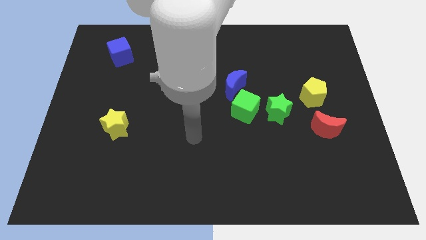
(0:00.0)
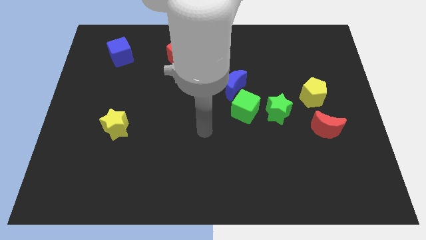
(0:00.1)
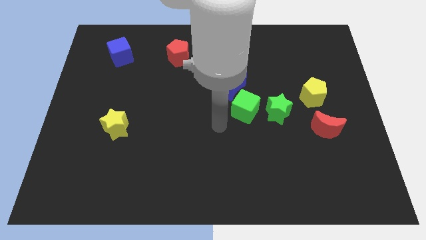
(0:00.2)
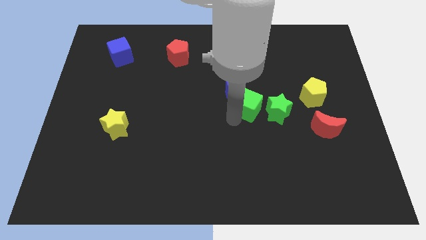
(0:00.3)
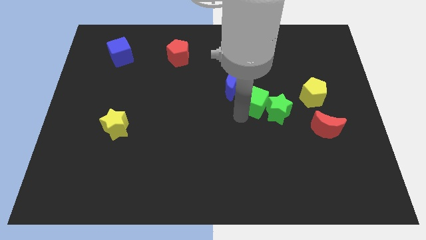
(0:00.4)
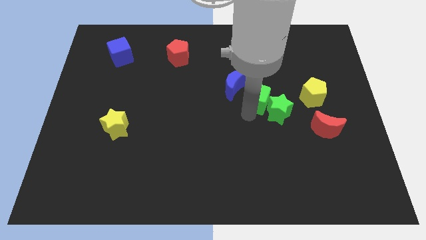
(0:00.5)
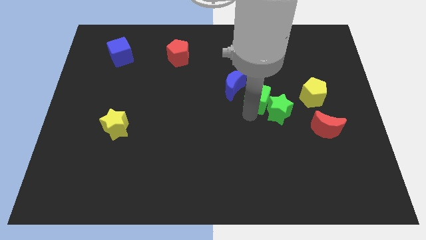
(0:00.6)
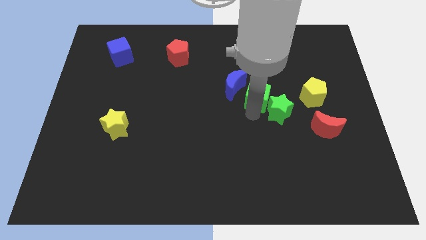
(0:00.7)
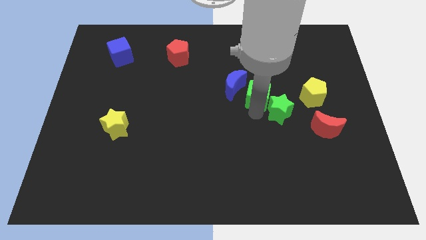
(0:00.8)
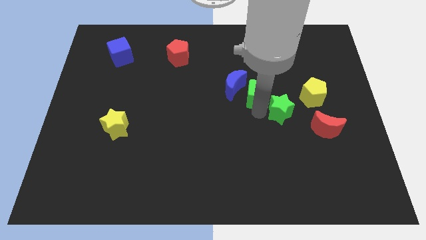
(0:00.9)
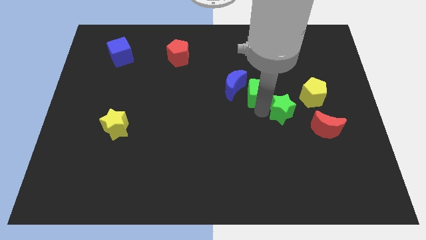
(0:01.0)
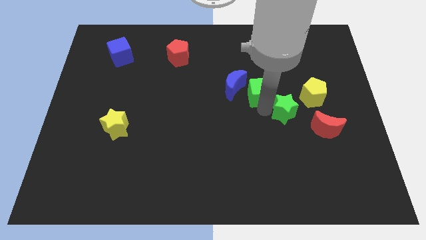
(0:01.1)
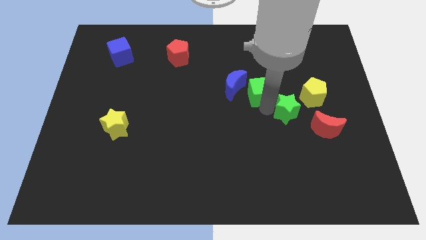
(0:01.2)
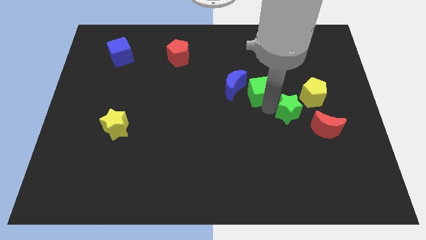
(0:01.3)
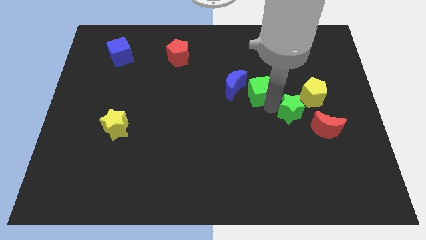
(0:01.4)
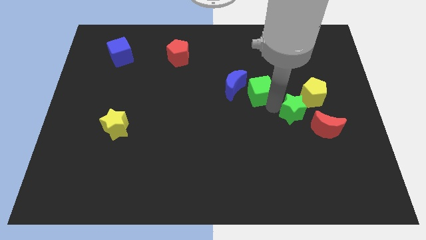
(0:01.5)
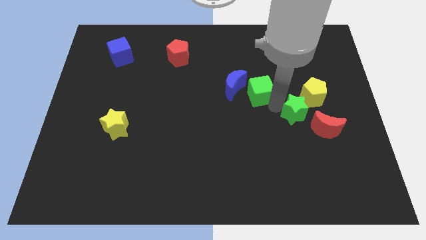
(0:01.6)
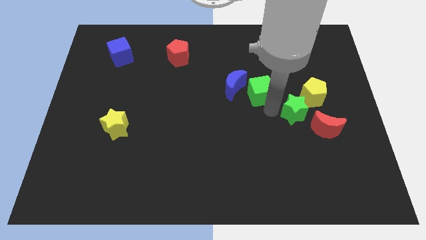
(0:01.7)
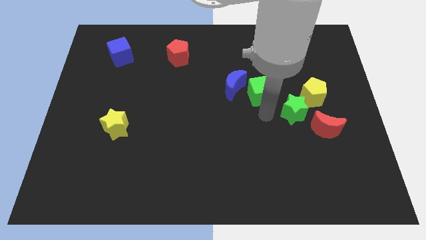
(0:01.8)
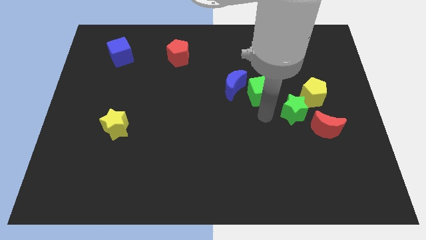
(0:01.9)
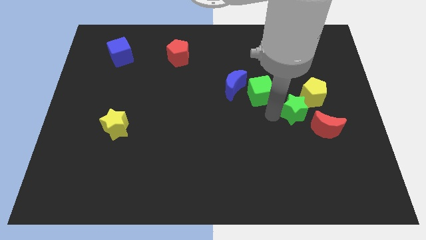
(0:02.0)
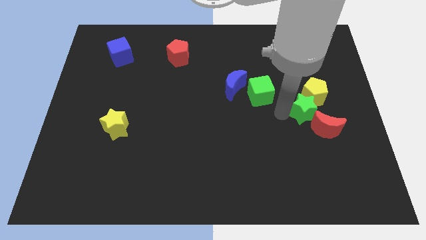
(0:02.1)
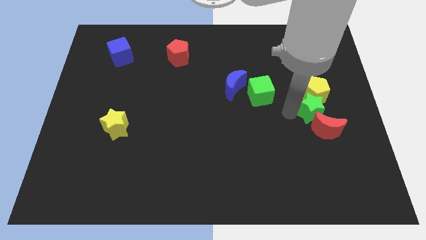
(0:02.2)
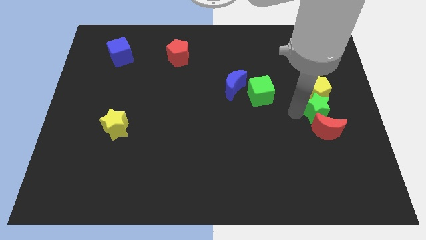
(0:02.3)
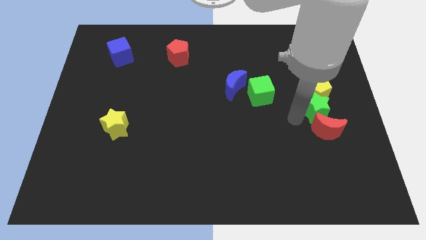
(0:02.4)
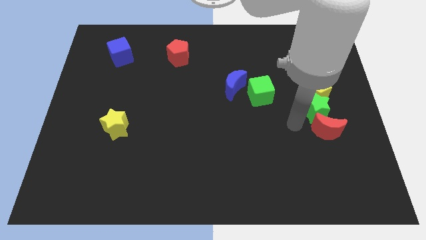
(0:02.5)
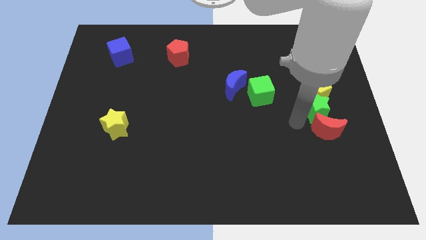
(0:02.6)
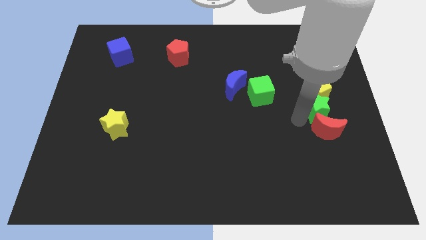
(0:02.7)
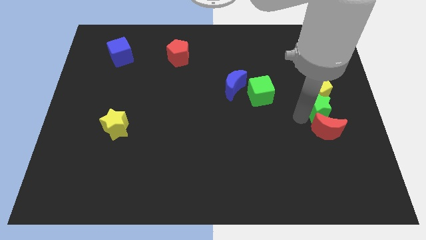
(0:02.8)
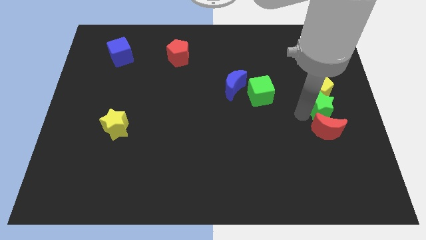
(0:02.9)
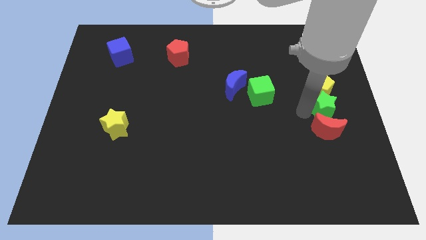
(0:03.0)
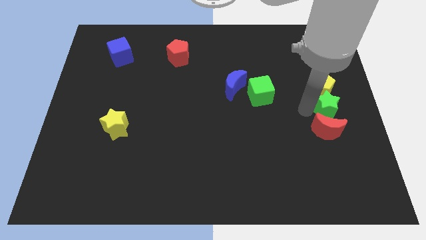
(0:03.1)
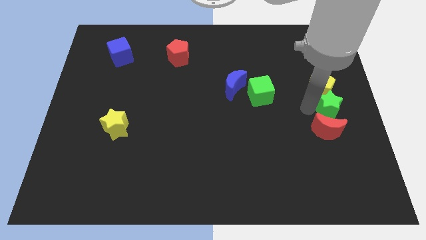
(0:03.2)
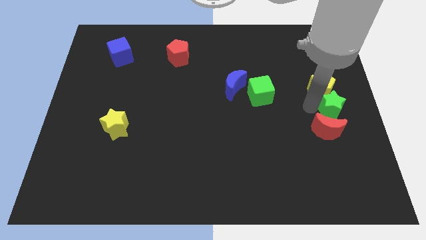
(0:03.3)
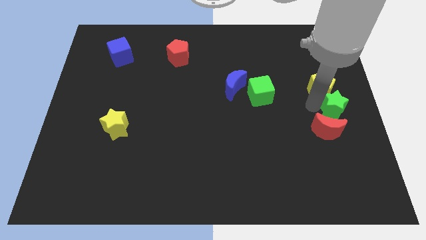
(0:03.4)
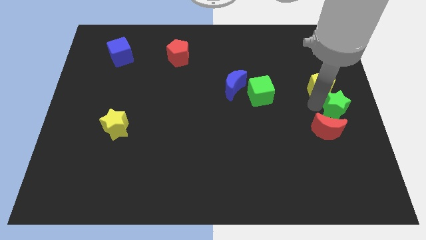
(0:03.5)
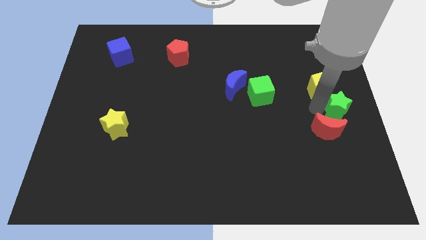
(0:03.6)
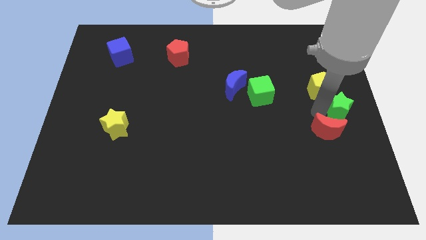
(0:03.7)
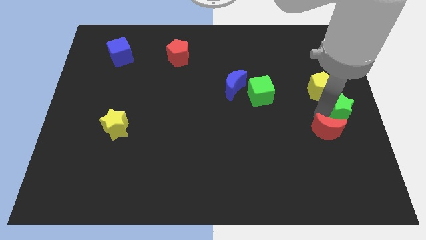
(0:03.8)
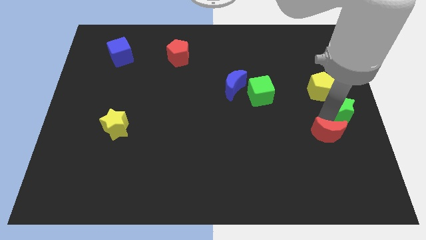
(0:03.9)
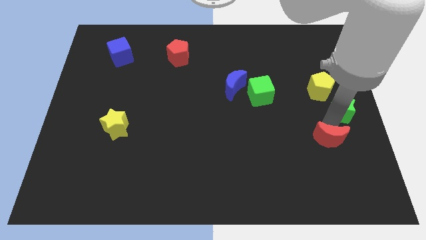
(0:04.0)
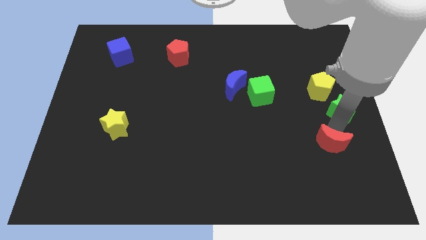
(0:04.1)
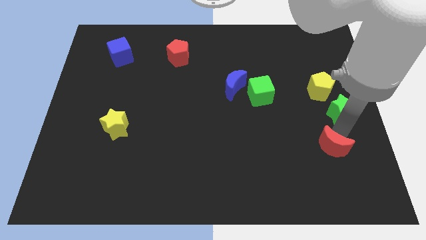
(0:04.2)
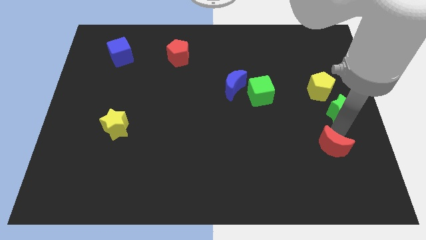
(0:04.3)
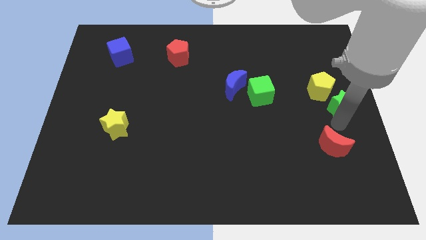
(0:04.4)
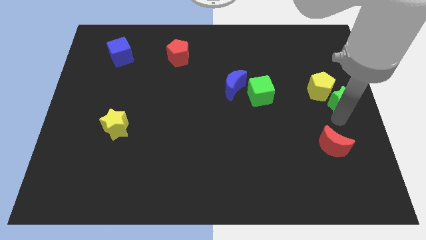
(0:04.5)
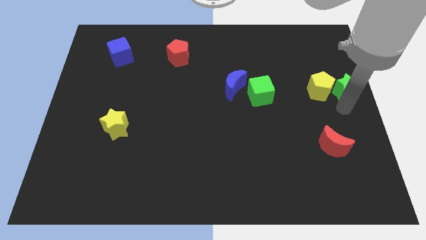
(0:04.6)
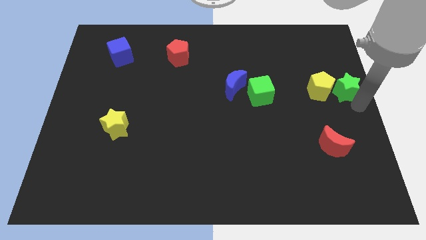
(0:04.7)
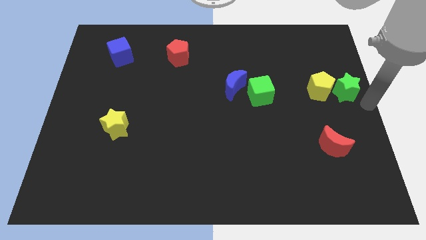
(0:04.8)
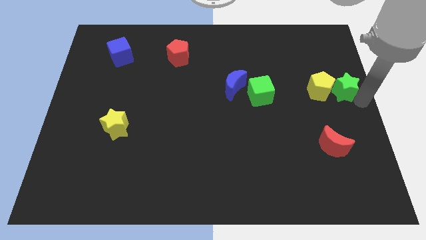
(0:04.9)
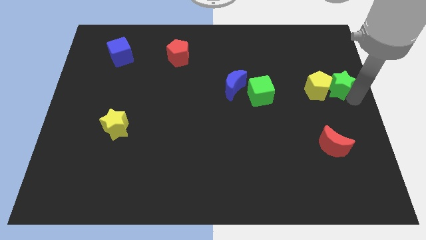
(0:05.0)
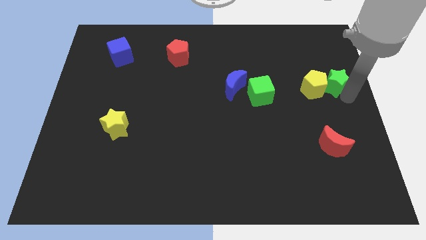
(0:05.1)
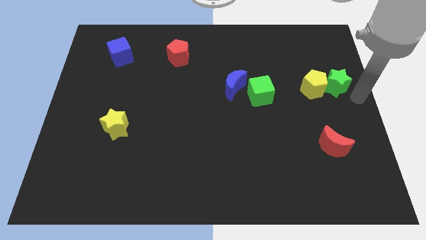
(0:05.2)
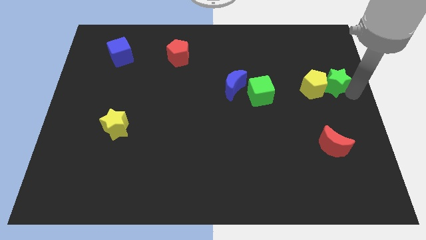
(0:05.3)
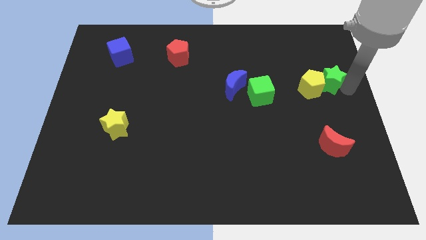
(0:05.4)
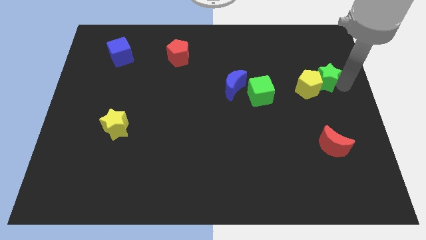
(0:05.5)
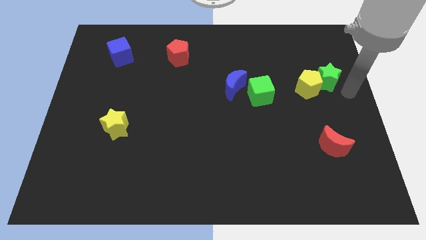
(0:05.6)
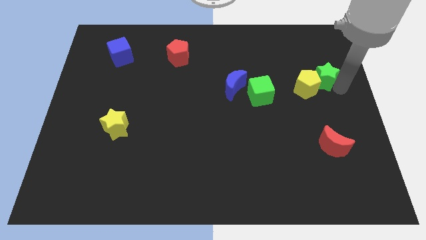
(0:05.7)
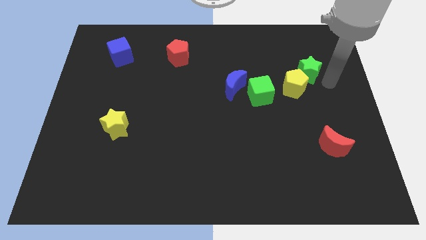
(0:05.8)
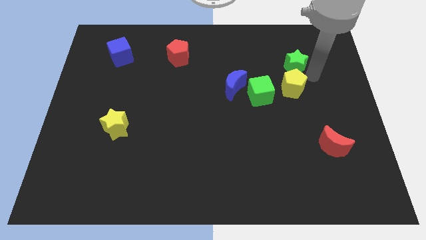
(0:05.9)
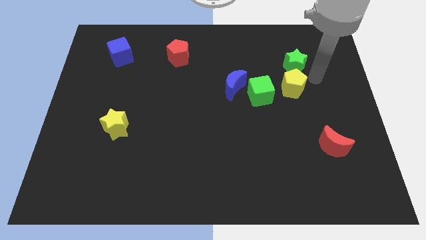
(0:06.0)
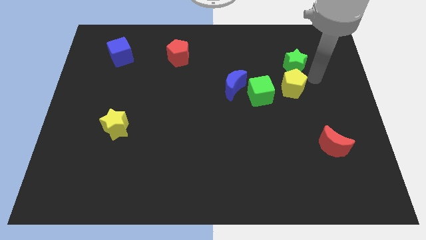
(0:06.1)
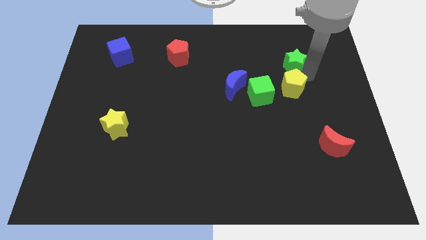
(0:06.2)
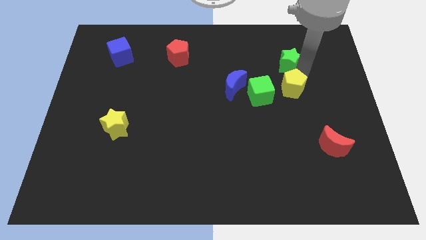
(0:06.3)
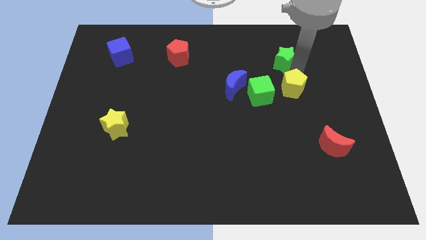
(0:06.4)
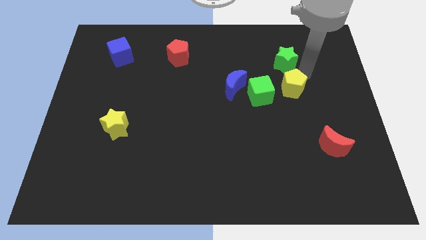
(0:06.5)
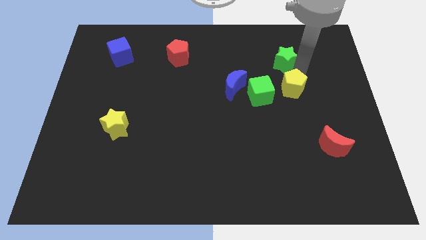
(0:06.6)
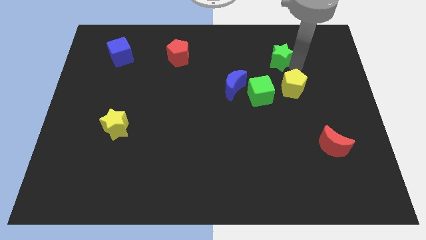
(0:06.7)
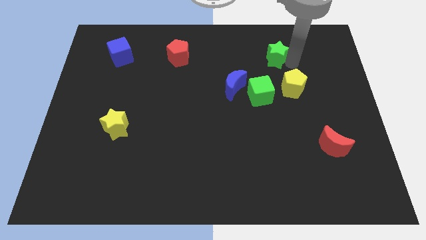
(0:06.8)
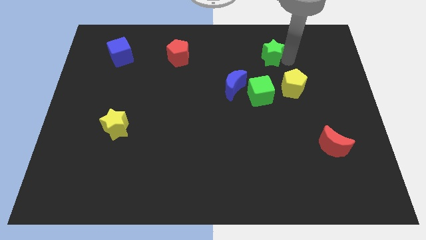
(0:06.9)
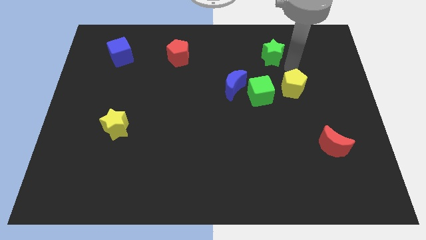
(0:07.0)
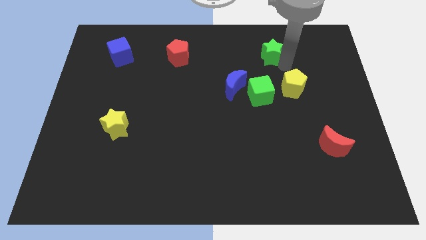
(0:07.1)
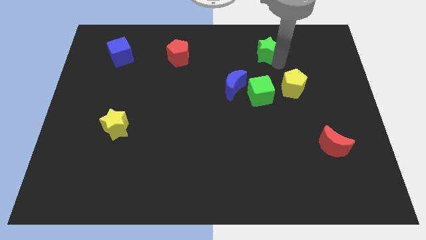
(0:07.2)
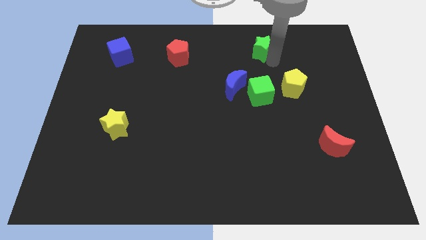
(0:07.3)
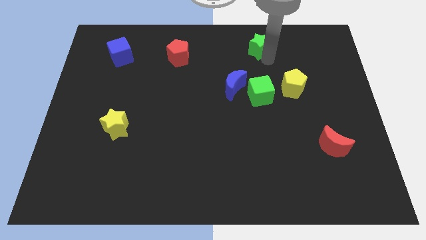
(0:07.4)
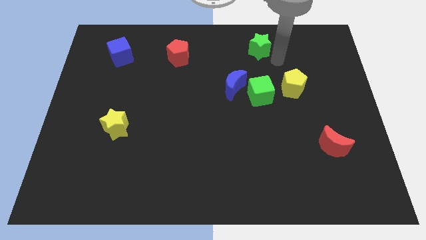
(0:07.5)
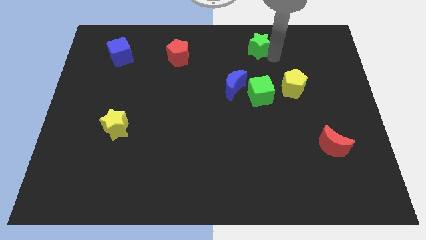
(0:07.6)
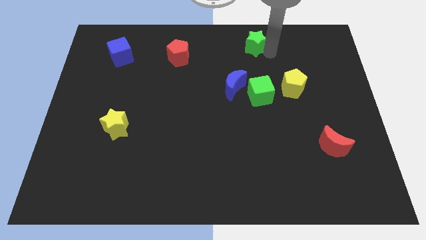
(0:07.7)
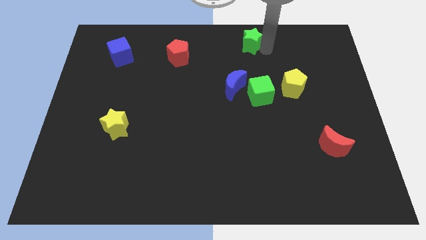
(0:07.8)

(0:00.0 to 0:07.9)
slide the green star to the top
